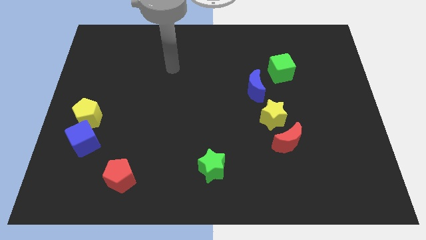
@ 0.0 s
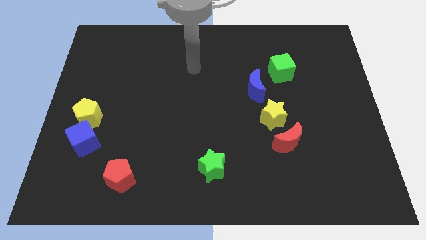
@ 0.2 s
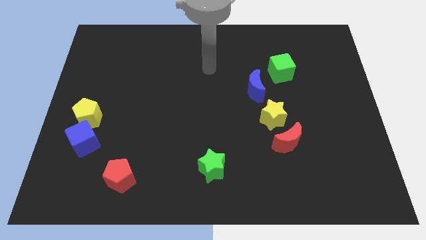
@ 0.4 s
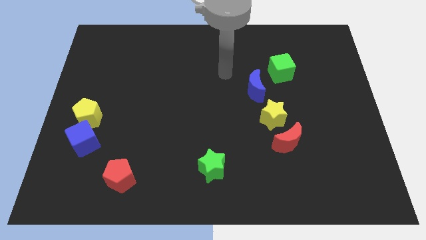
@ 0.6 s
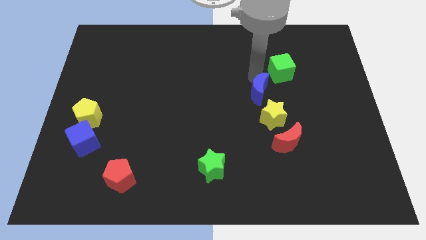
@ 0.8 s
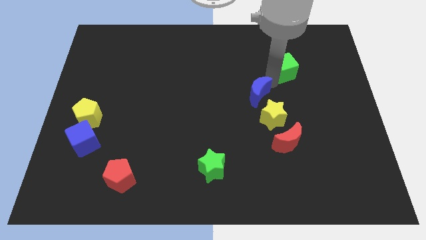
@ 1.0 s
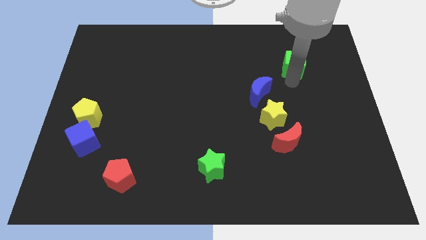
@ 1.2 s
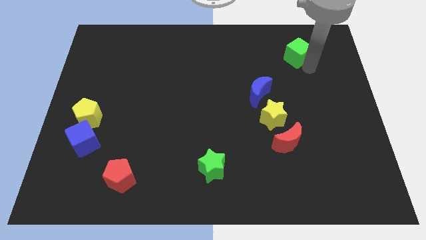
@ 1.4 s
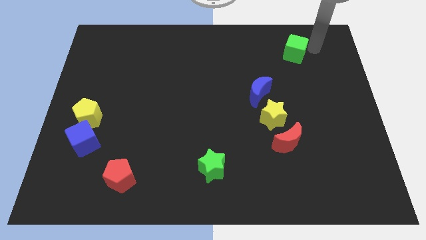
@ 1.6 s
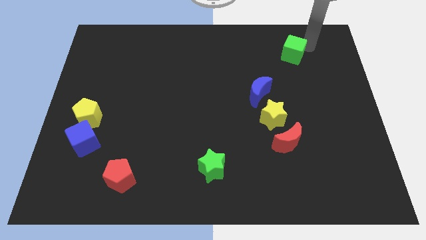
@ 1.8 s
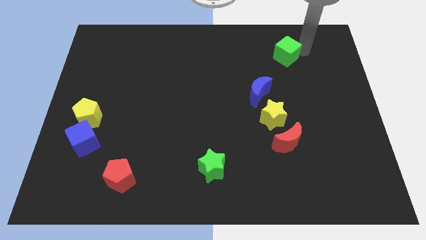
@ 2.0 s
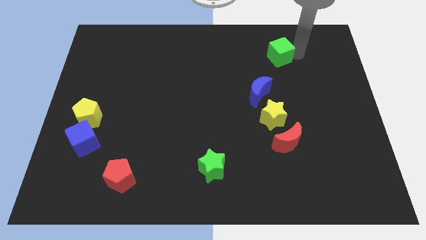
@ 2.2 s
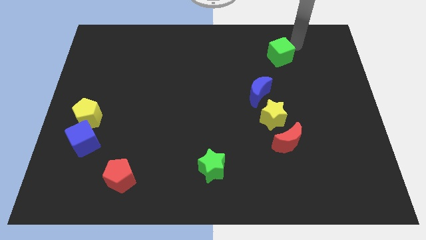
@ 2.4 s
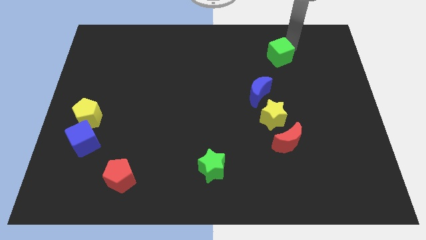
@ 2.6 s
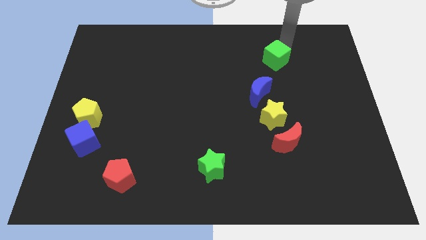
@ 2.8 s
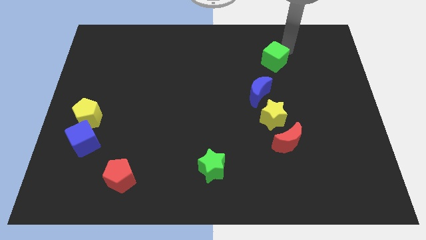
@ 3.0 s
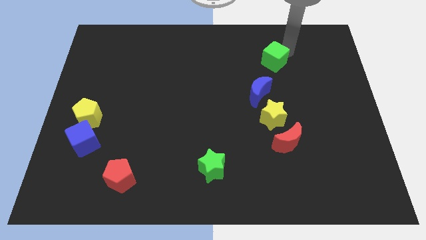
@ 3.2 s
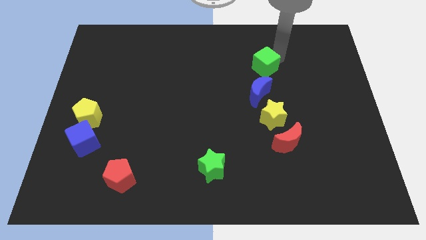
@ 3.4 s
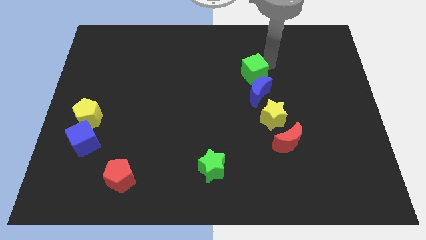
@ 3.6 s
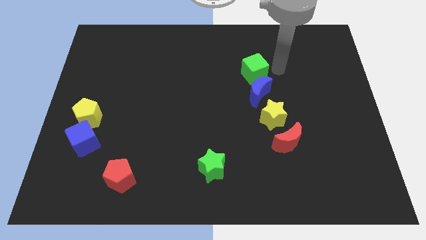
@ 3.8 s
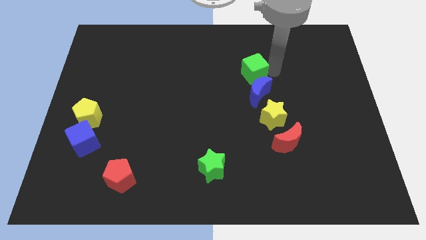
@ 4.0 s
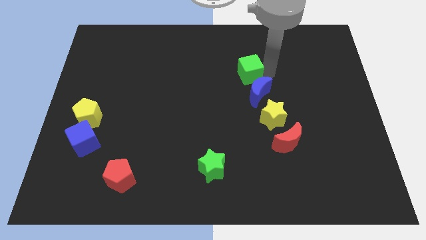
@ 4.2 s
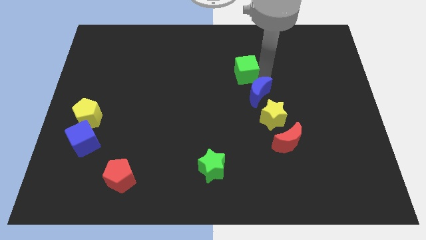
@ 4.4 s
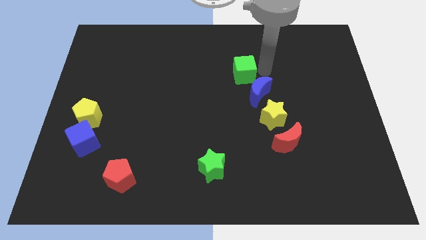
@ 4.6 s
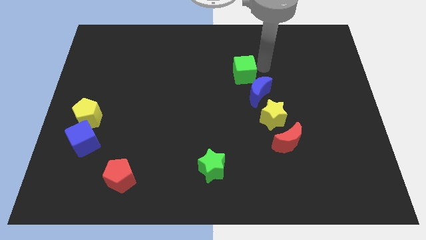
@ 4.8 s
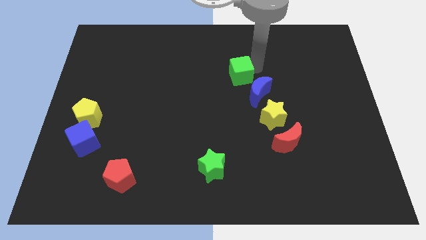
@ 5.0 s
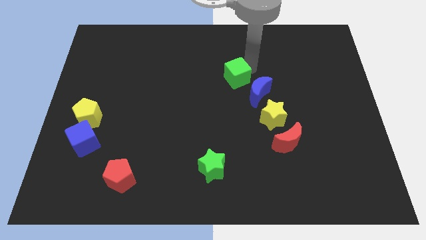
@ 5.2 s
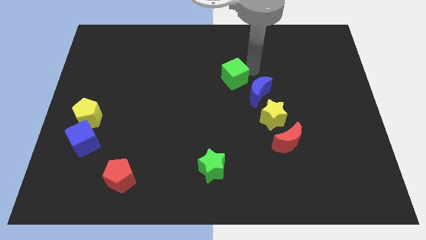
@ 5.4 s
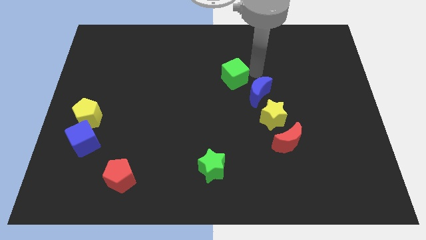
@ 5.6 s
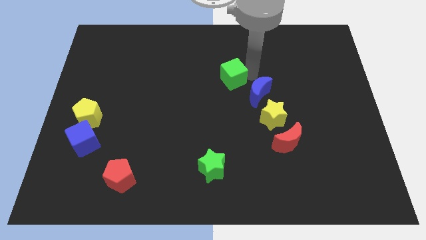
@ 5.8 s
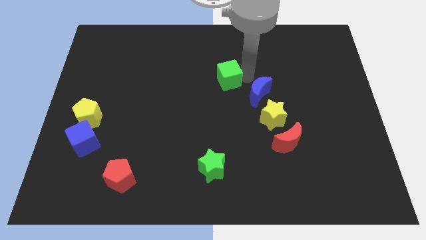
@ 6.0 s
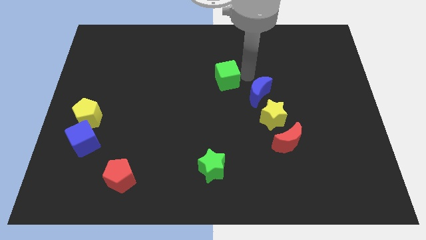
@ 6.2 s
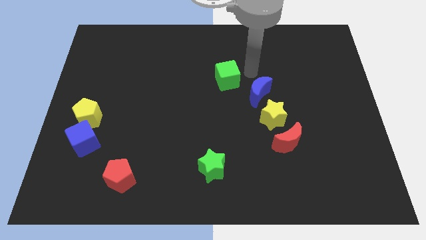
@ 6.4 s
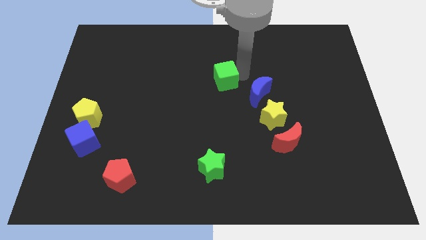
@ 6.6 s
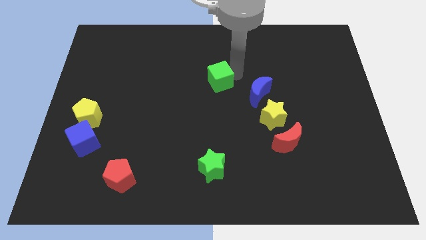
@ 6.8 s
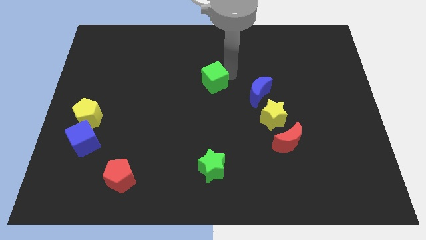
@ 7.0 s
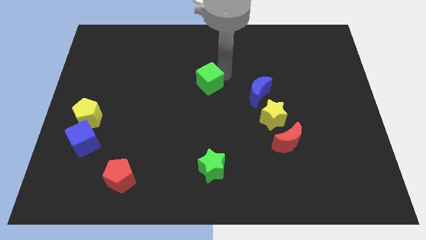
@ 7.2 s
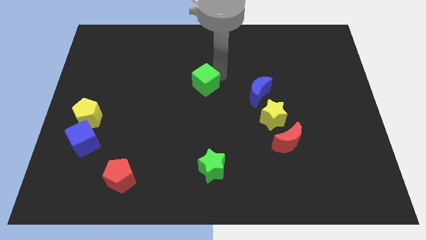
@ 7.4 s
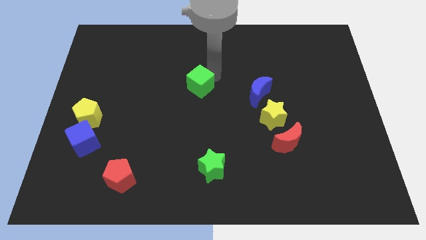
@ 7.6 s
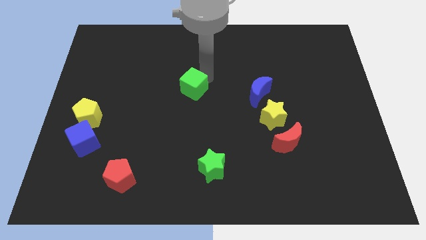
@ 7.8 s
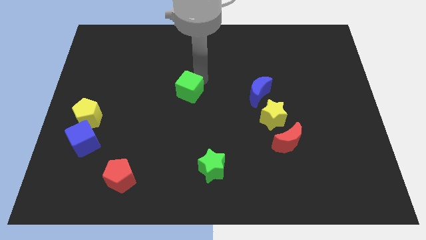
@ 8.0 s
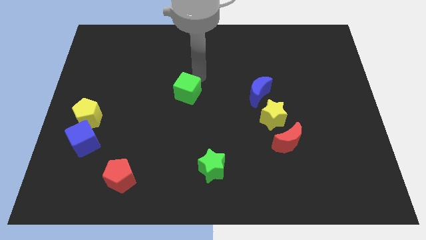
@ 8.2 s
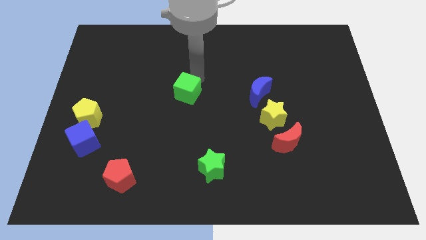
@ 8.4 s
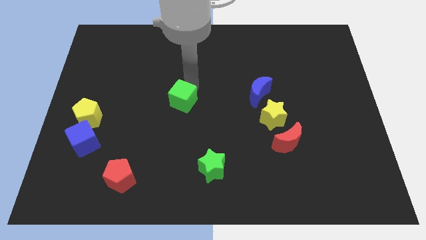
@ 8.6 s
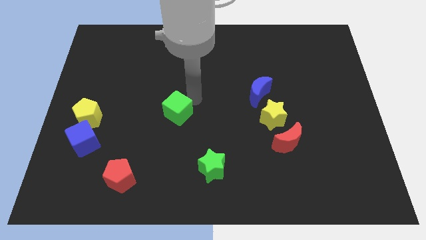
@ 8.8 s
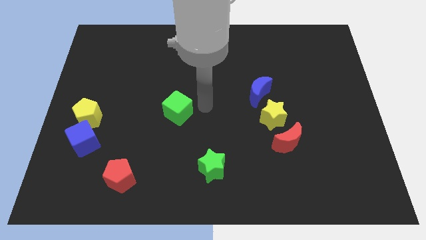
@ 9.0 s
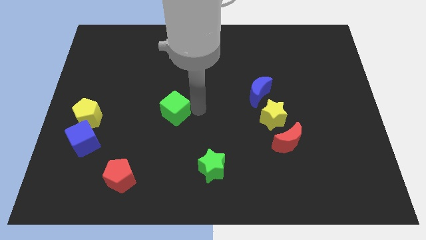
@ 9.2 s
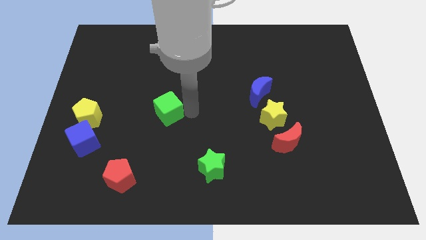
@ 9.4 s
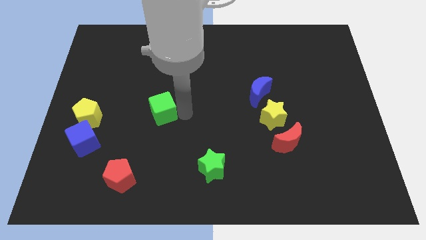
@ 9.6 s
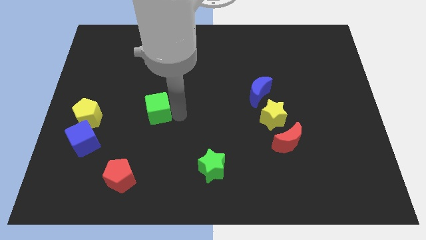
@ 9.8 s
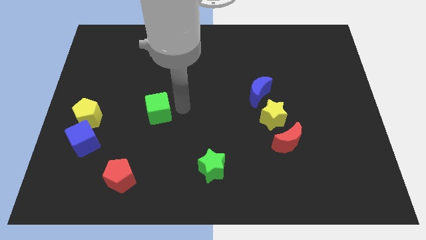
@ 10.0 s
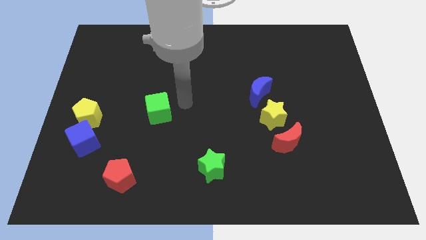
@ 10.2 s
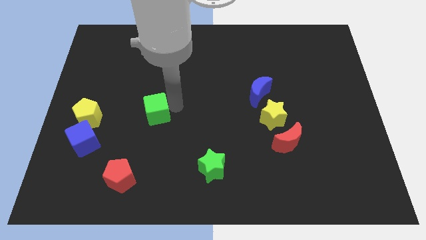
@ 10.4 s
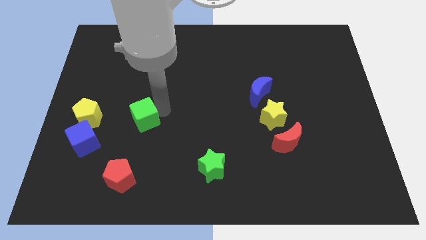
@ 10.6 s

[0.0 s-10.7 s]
push the green cube above the red pentagon

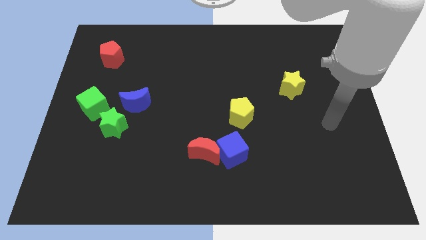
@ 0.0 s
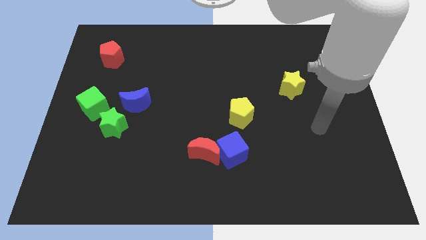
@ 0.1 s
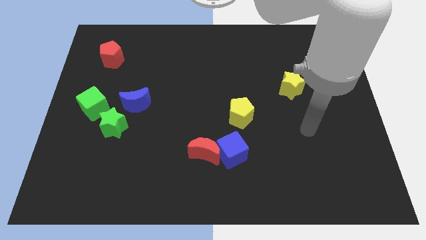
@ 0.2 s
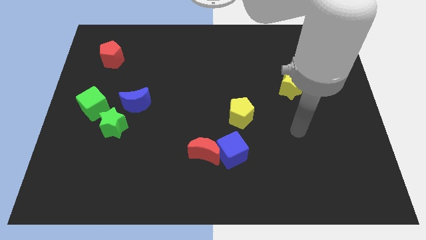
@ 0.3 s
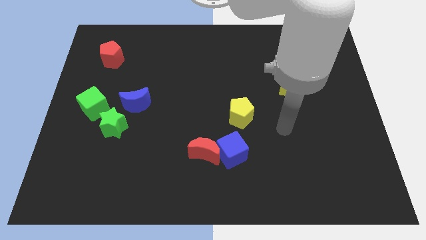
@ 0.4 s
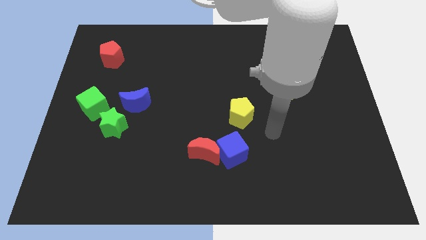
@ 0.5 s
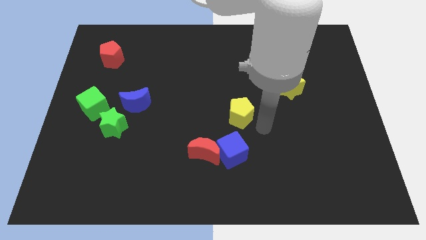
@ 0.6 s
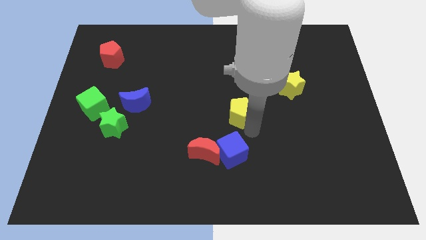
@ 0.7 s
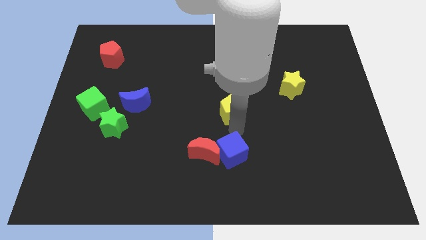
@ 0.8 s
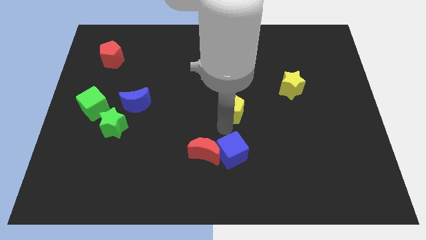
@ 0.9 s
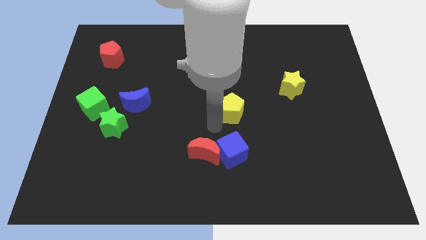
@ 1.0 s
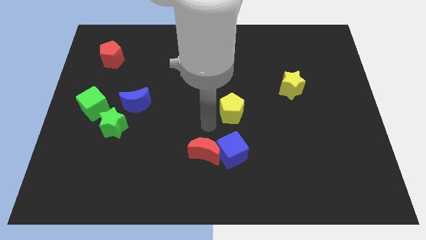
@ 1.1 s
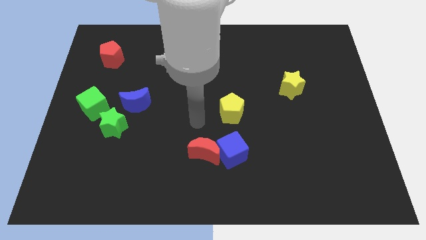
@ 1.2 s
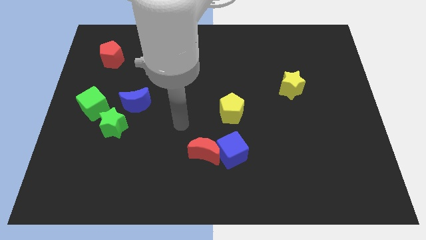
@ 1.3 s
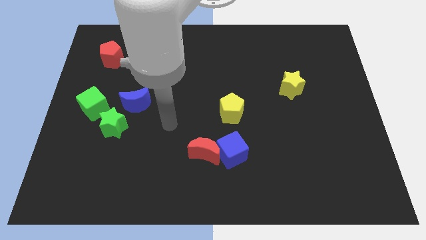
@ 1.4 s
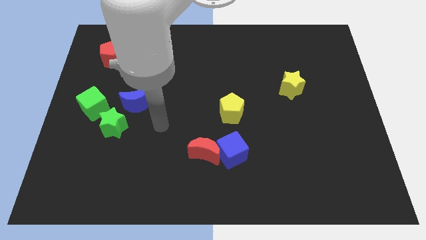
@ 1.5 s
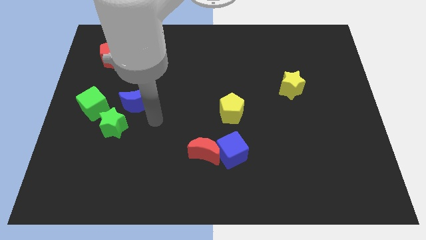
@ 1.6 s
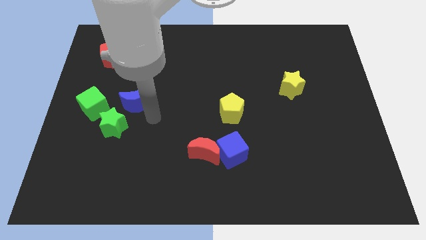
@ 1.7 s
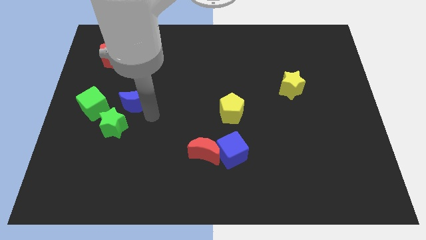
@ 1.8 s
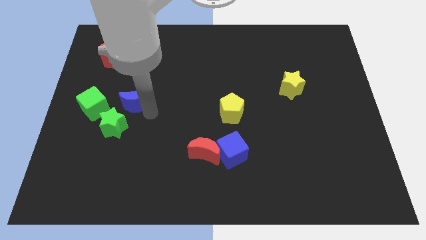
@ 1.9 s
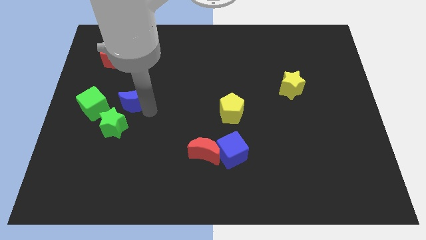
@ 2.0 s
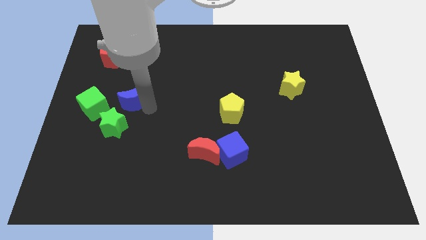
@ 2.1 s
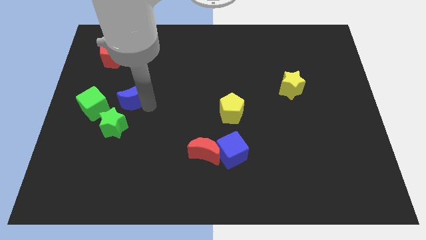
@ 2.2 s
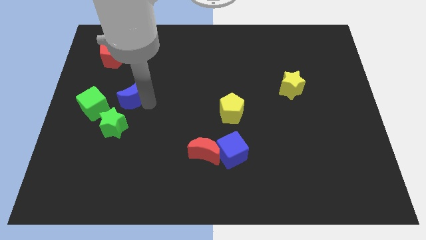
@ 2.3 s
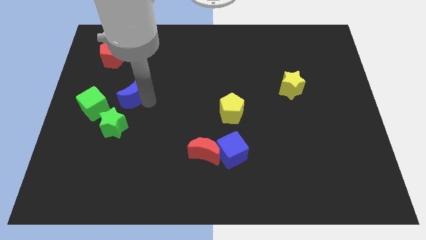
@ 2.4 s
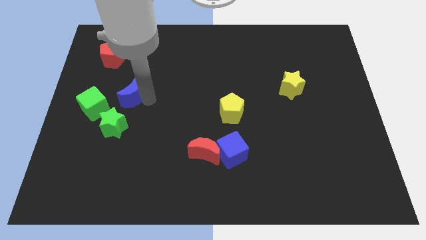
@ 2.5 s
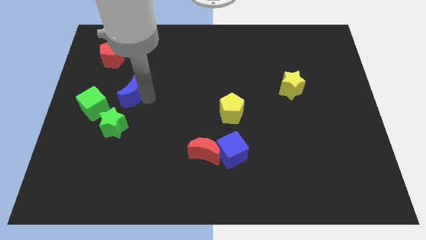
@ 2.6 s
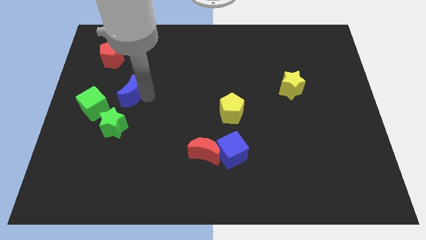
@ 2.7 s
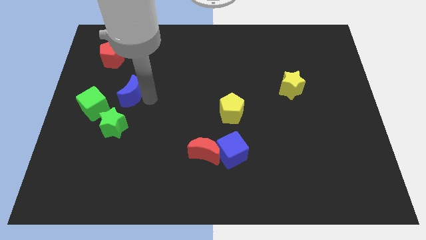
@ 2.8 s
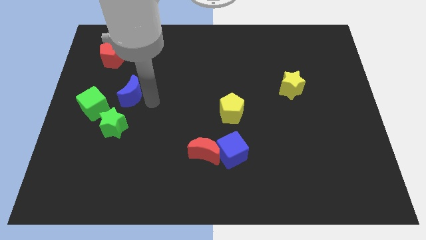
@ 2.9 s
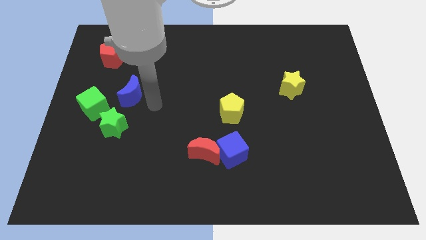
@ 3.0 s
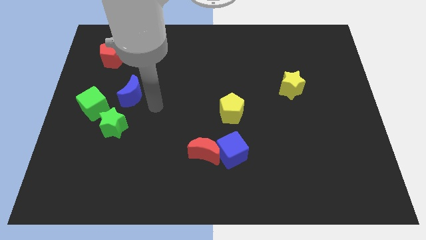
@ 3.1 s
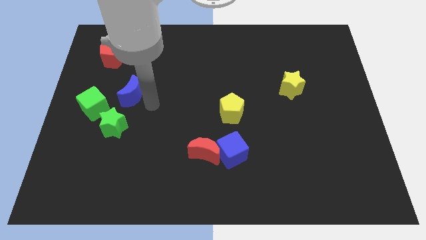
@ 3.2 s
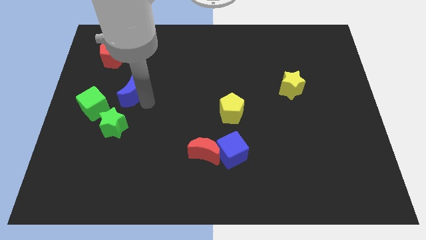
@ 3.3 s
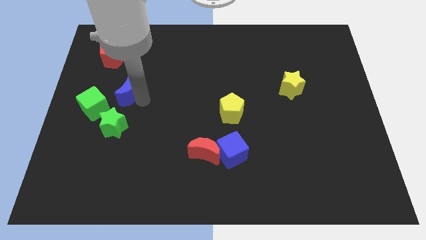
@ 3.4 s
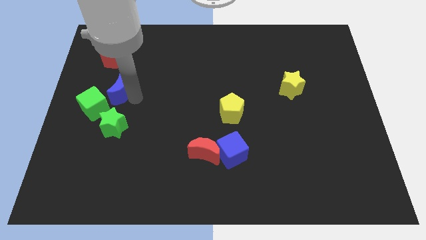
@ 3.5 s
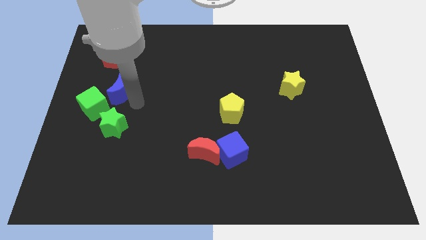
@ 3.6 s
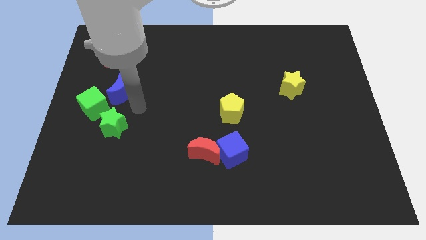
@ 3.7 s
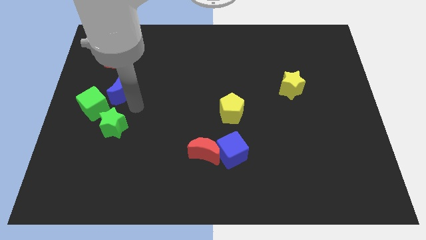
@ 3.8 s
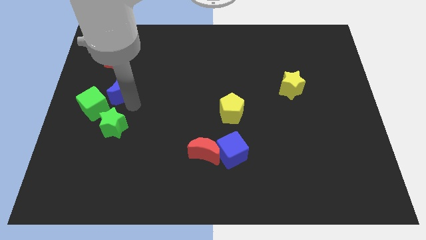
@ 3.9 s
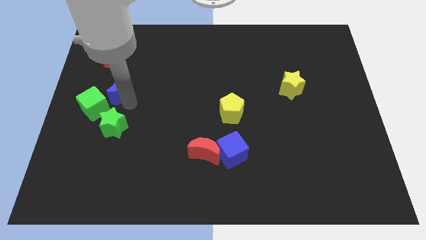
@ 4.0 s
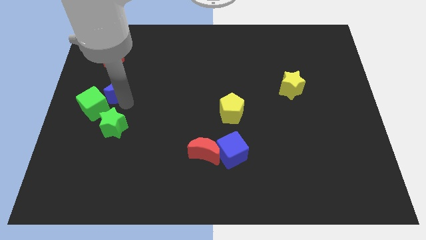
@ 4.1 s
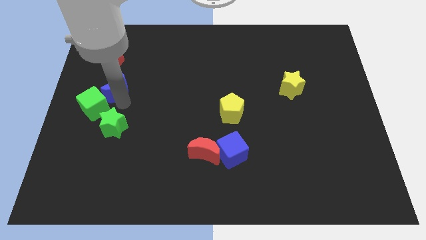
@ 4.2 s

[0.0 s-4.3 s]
slide the blue moon to the top of the green cube
